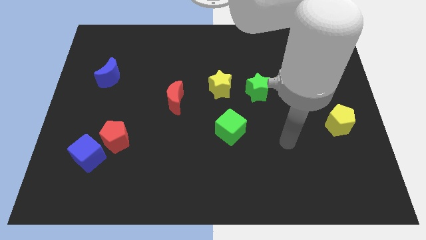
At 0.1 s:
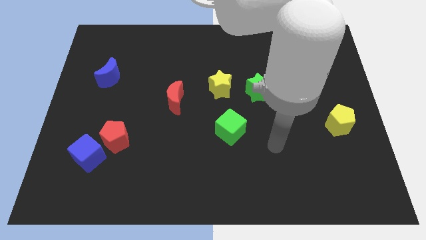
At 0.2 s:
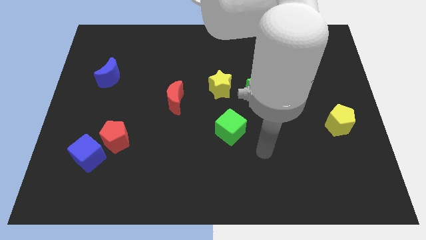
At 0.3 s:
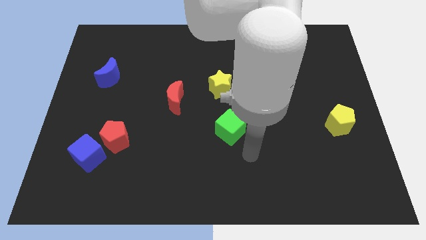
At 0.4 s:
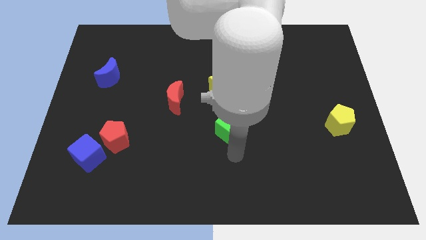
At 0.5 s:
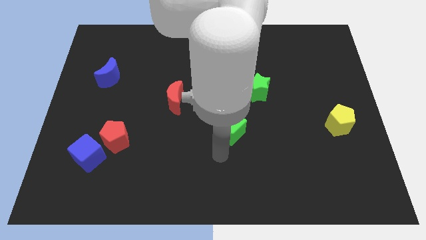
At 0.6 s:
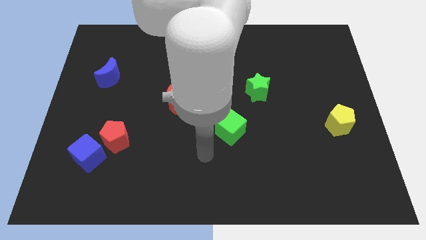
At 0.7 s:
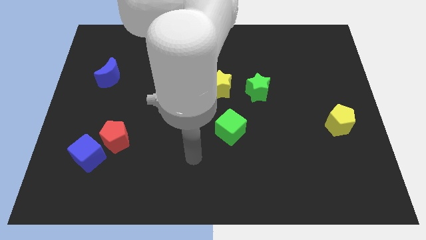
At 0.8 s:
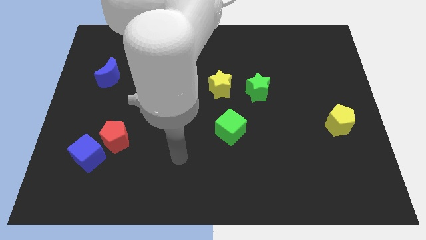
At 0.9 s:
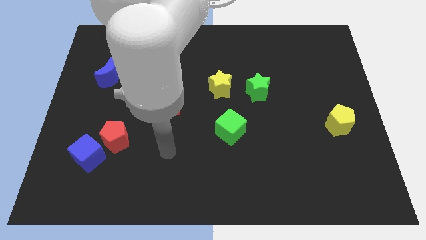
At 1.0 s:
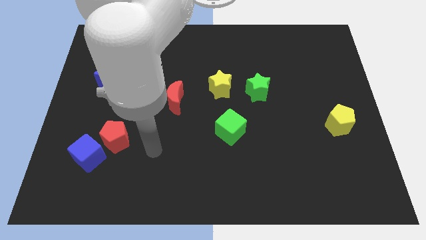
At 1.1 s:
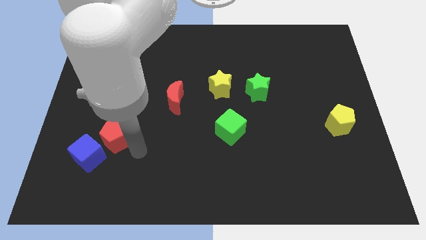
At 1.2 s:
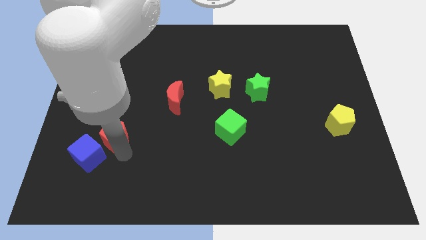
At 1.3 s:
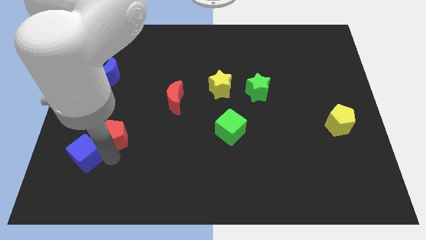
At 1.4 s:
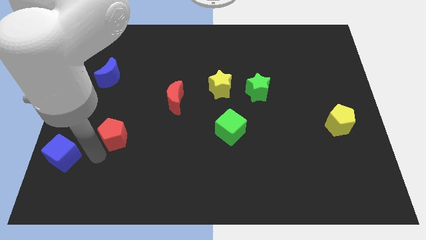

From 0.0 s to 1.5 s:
pull the red pentagon apart from the blue cube

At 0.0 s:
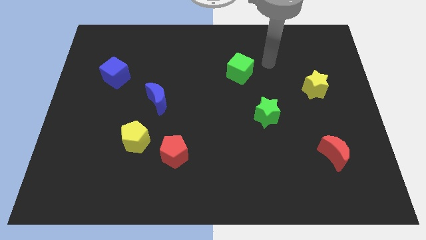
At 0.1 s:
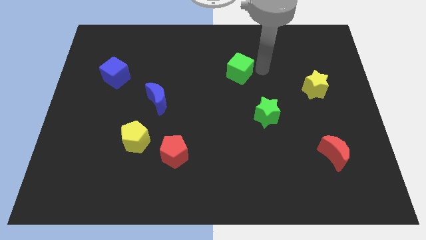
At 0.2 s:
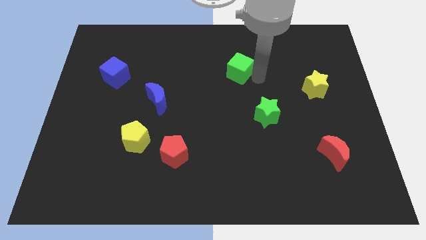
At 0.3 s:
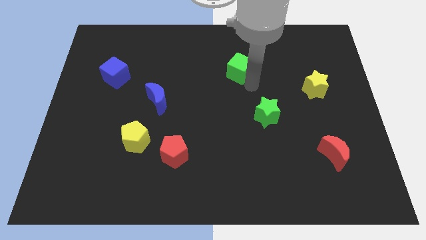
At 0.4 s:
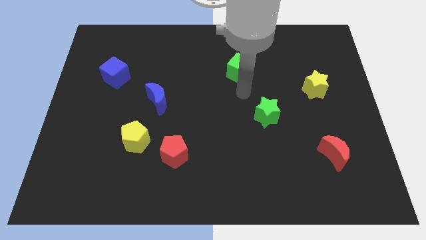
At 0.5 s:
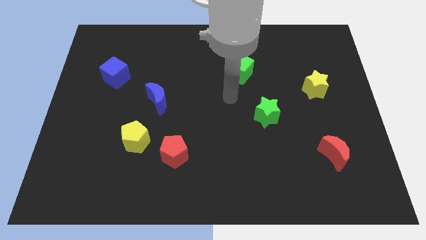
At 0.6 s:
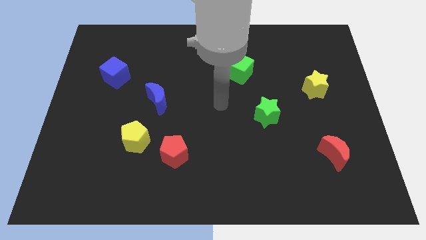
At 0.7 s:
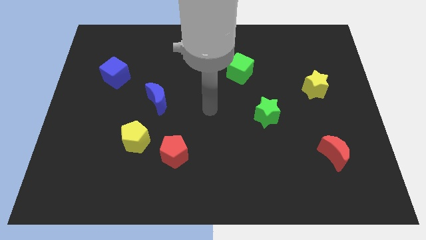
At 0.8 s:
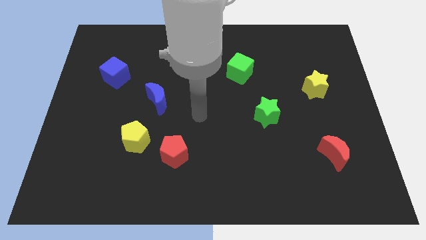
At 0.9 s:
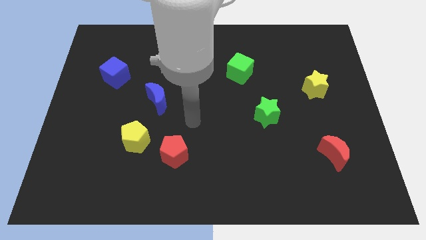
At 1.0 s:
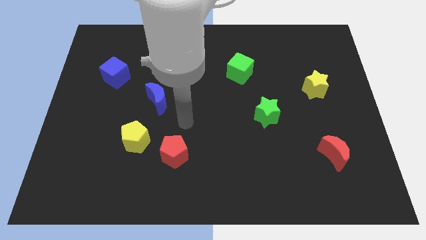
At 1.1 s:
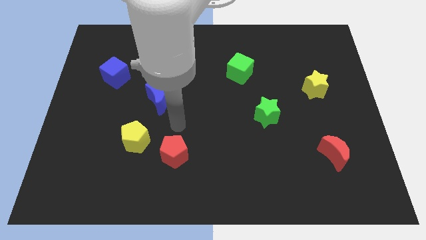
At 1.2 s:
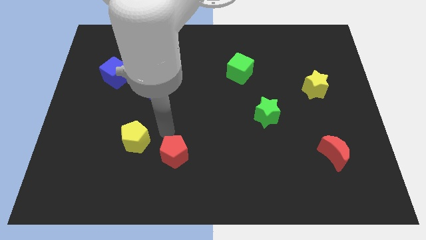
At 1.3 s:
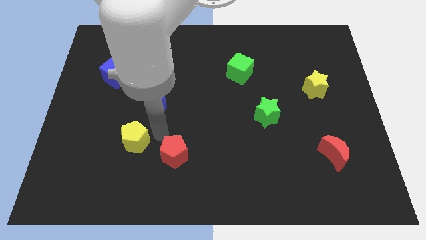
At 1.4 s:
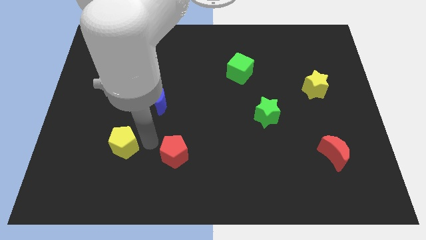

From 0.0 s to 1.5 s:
pull the red pentagon apart from the yellow pentagon

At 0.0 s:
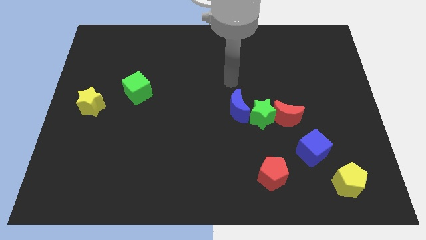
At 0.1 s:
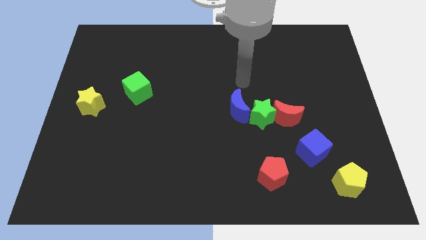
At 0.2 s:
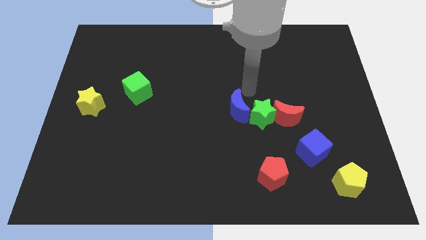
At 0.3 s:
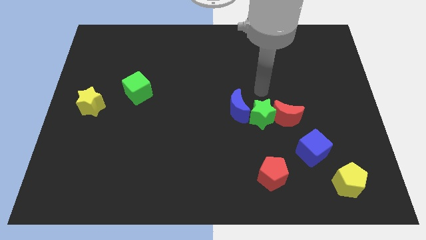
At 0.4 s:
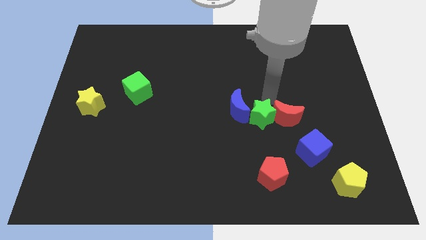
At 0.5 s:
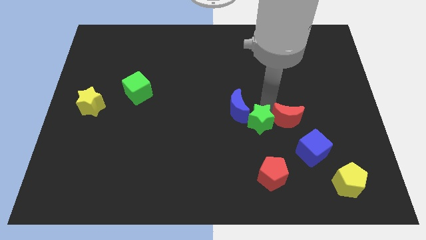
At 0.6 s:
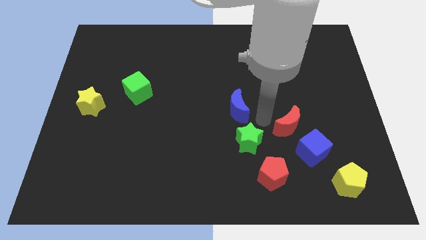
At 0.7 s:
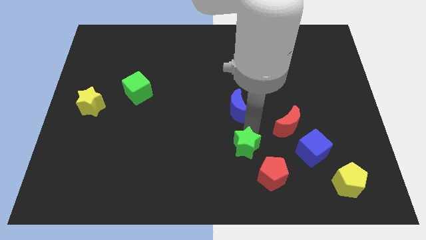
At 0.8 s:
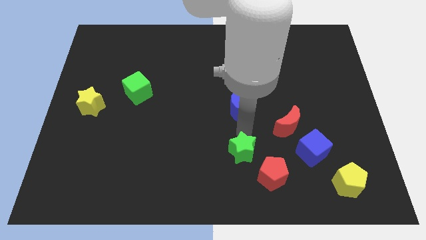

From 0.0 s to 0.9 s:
move the blue moon away from the green star

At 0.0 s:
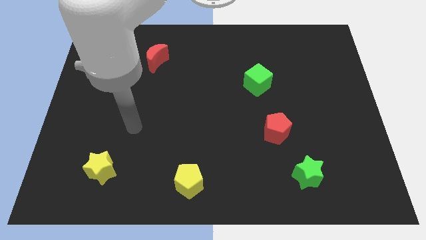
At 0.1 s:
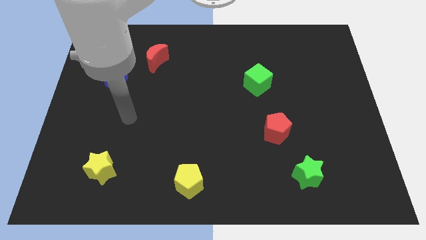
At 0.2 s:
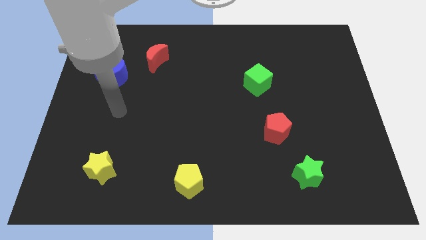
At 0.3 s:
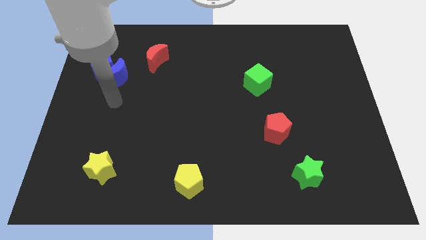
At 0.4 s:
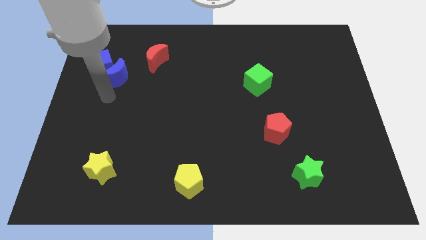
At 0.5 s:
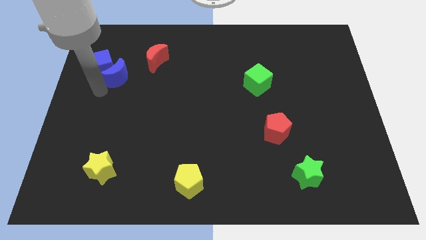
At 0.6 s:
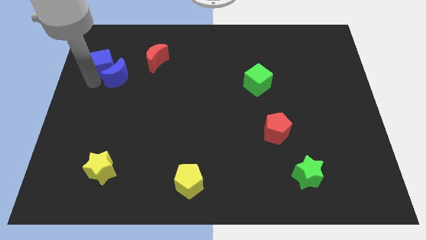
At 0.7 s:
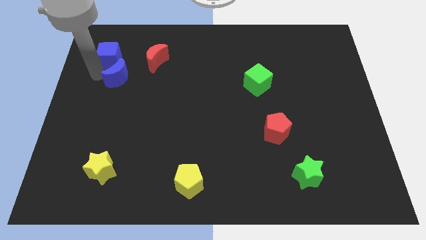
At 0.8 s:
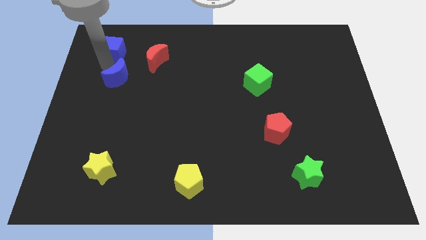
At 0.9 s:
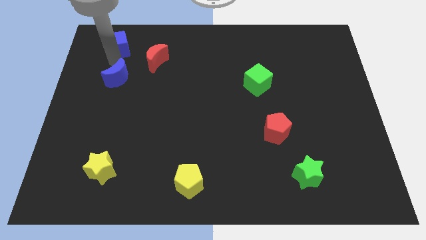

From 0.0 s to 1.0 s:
pull the blue moon apart from the blue cube

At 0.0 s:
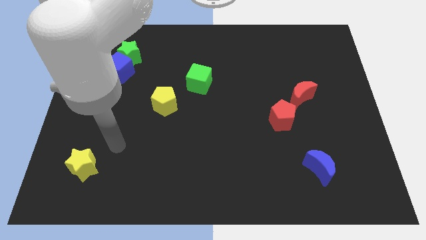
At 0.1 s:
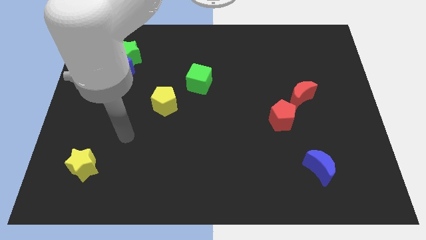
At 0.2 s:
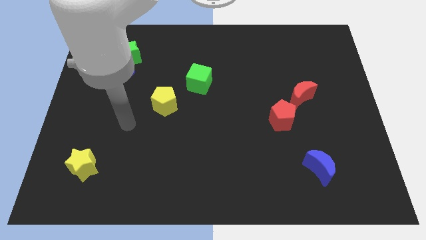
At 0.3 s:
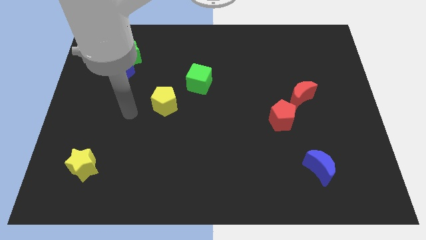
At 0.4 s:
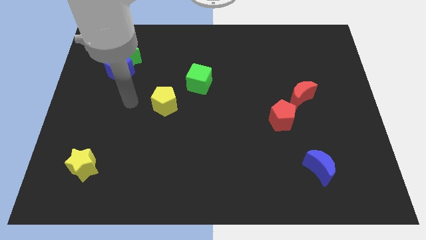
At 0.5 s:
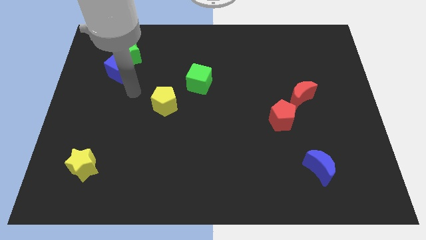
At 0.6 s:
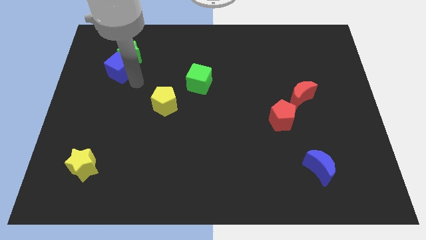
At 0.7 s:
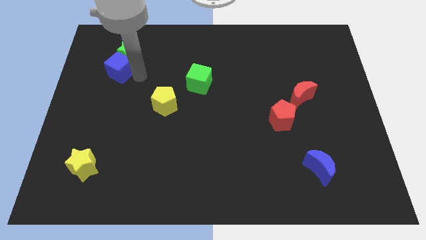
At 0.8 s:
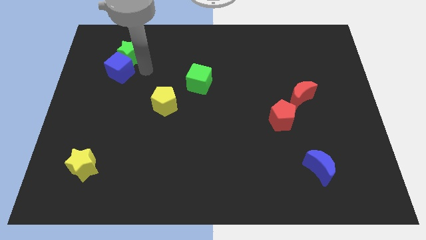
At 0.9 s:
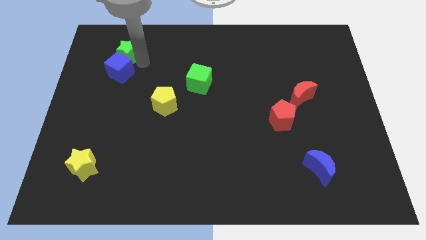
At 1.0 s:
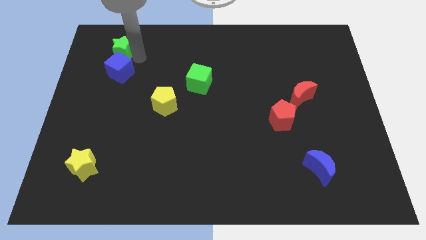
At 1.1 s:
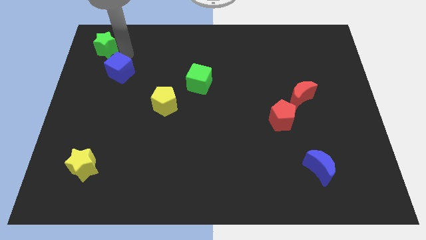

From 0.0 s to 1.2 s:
separate the blue cube from the green star

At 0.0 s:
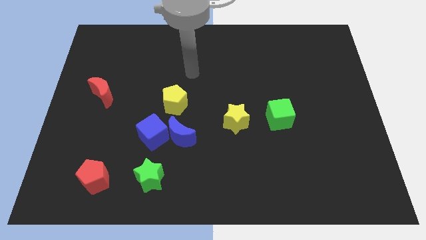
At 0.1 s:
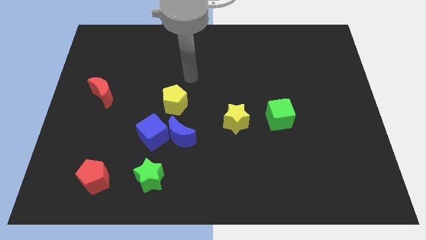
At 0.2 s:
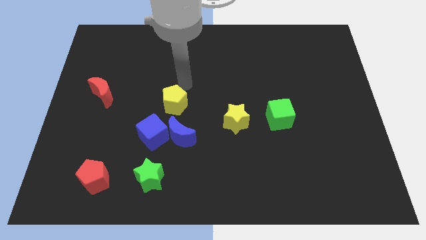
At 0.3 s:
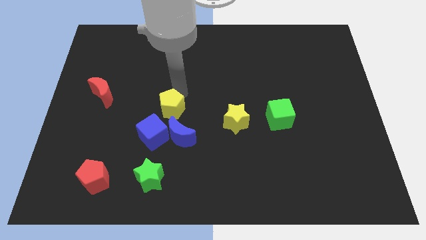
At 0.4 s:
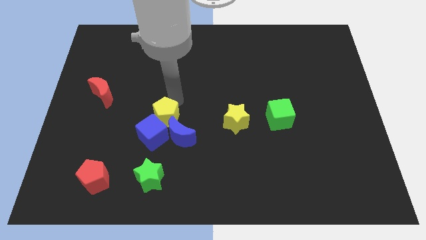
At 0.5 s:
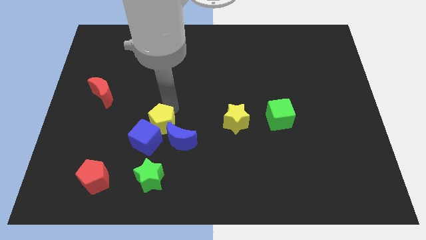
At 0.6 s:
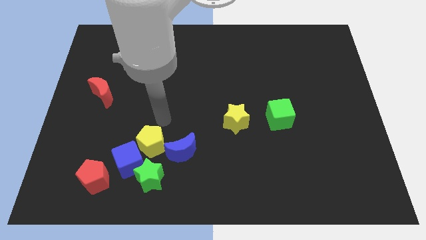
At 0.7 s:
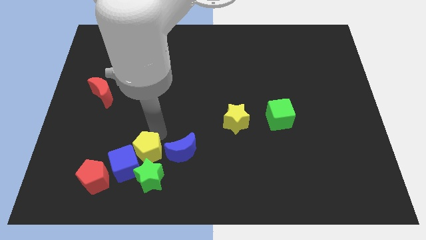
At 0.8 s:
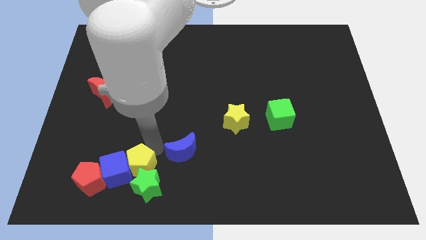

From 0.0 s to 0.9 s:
pull the blue moon apart from the blue cube and yellow pentagon

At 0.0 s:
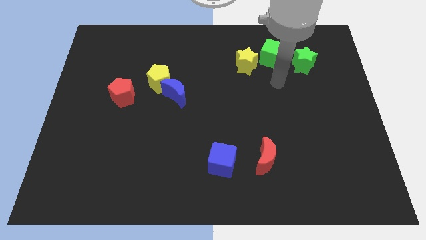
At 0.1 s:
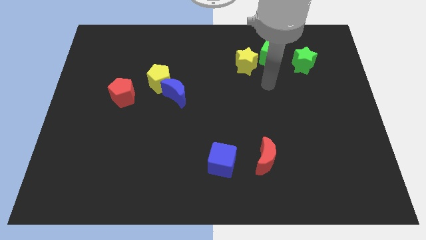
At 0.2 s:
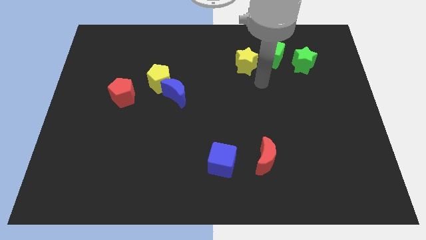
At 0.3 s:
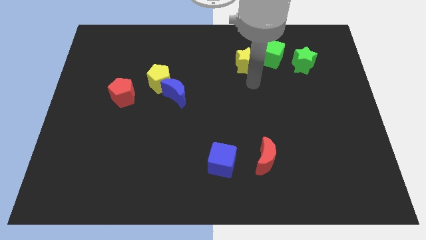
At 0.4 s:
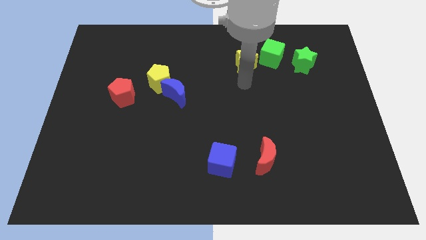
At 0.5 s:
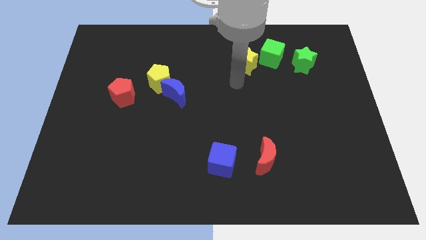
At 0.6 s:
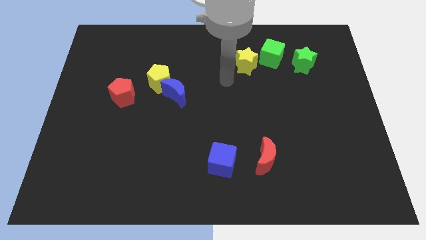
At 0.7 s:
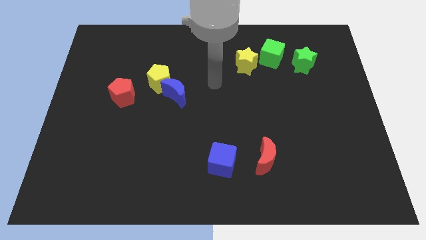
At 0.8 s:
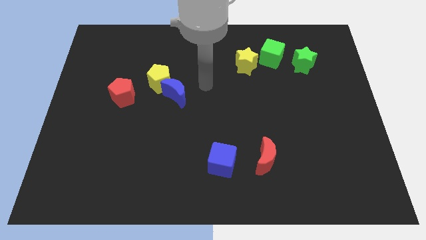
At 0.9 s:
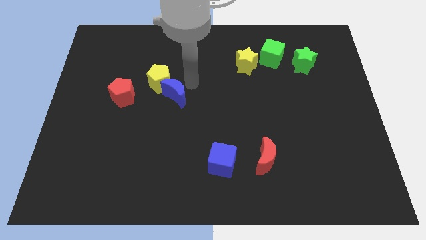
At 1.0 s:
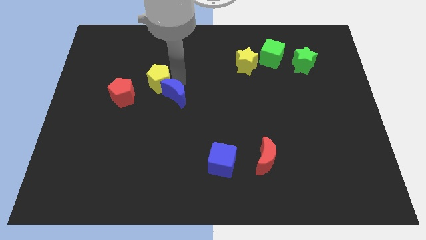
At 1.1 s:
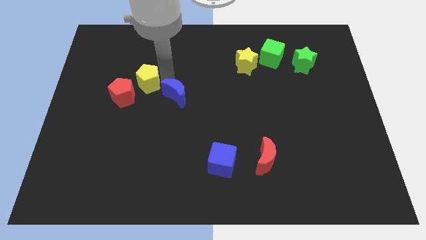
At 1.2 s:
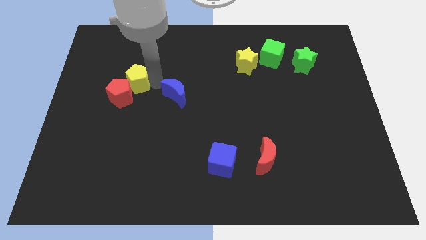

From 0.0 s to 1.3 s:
separate the blue moon from the yellow pentagon

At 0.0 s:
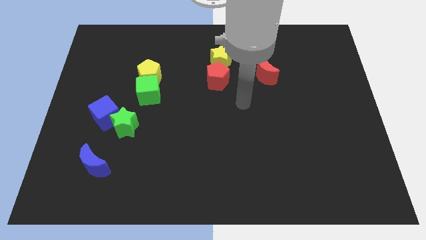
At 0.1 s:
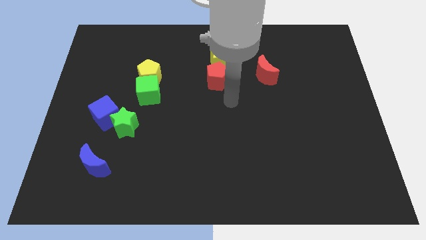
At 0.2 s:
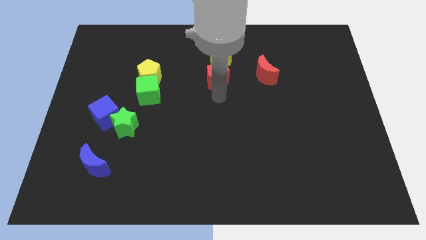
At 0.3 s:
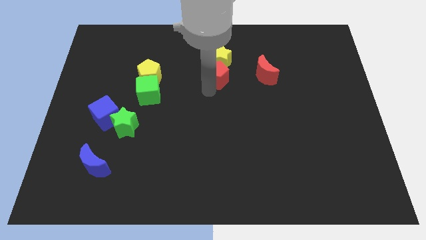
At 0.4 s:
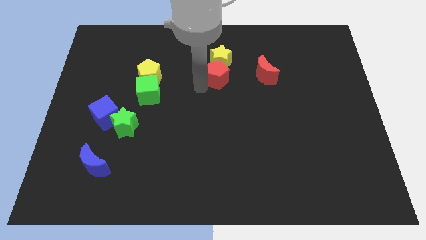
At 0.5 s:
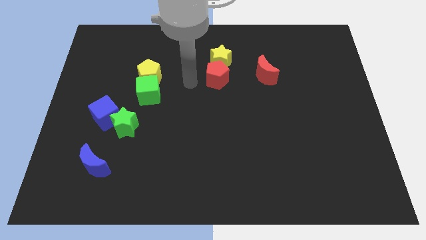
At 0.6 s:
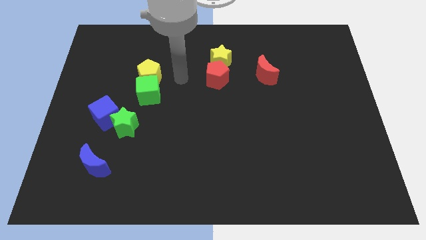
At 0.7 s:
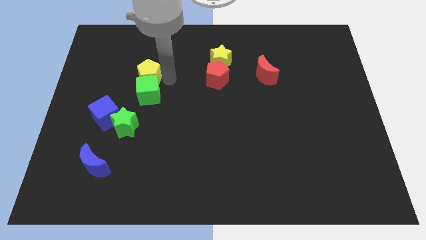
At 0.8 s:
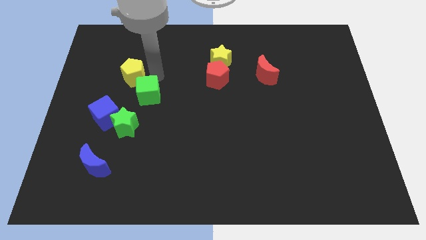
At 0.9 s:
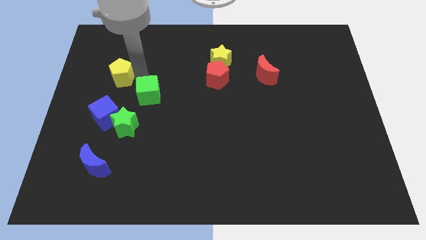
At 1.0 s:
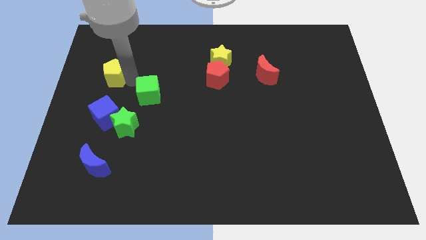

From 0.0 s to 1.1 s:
pull the green cube apart from the yellow pentagon

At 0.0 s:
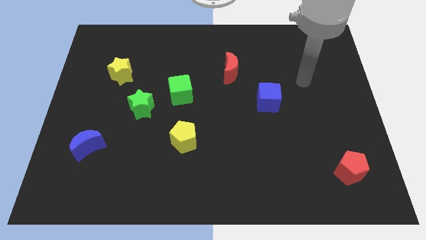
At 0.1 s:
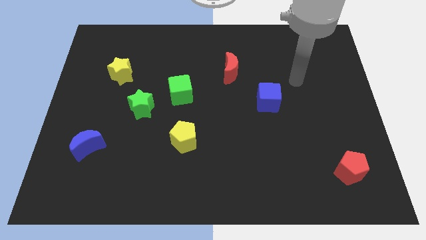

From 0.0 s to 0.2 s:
separate the green cube from the green star
